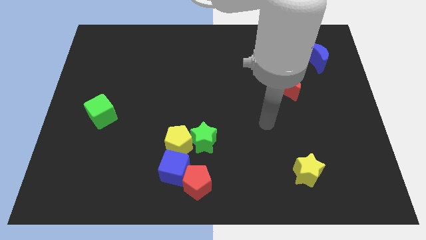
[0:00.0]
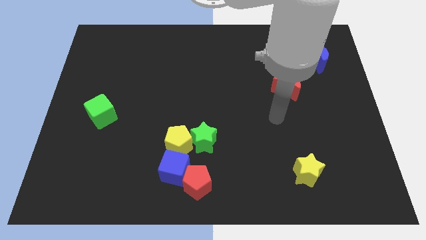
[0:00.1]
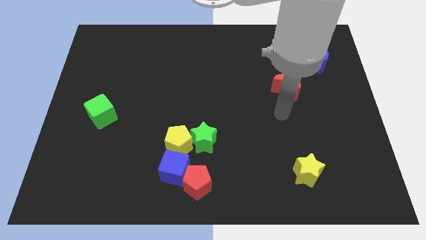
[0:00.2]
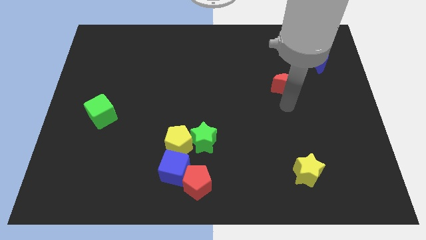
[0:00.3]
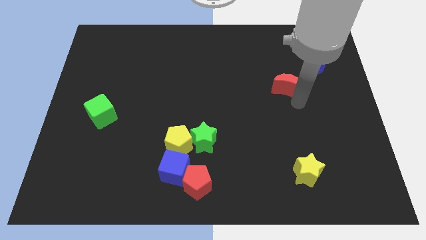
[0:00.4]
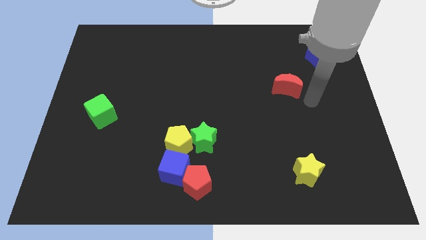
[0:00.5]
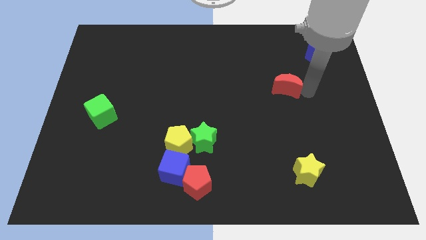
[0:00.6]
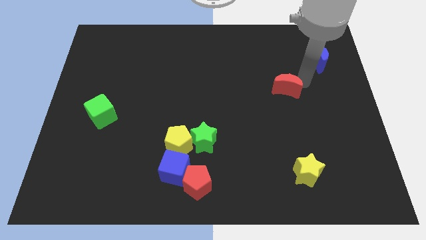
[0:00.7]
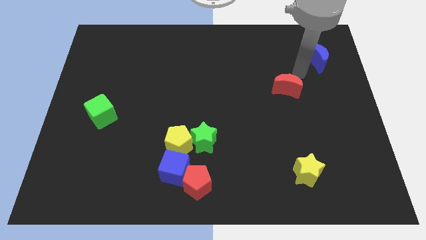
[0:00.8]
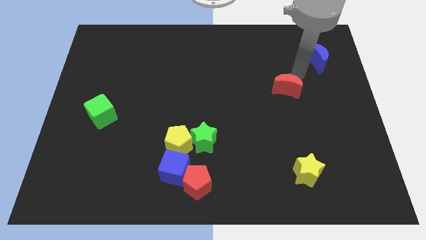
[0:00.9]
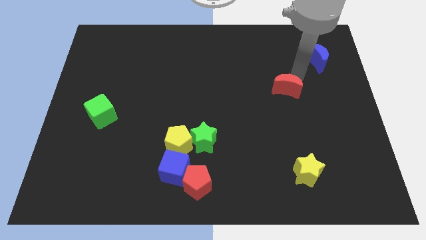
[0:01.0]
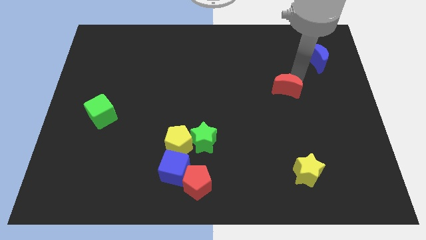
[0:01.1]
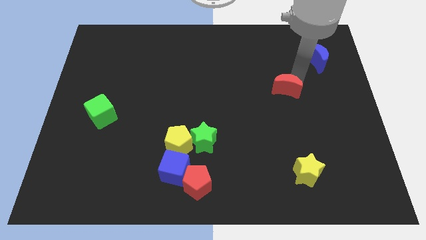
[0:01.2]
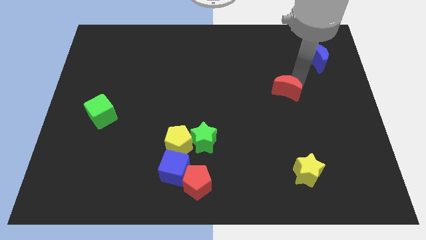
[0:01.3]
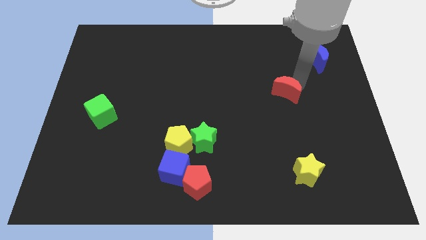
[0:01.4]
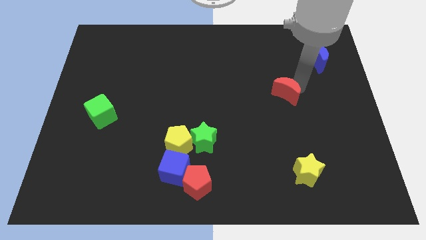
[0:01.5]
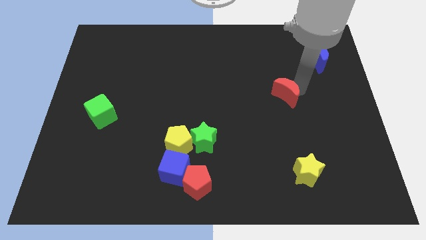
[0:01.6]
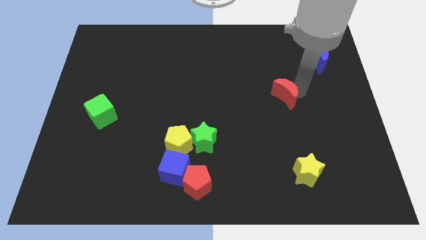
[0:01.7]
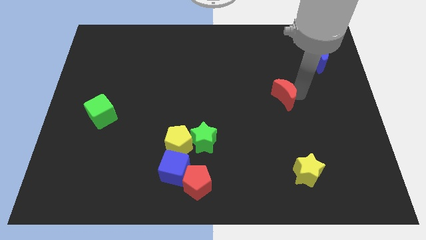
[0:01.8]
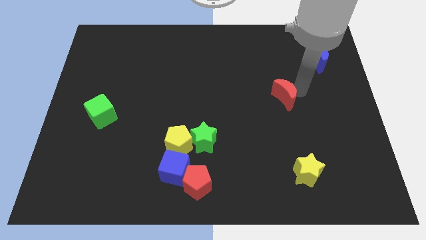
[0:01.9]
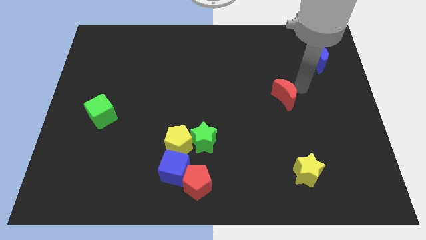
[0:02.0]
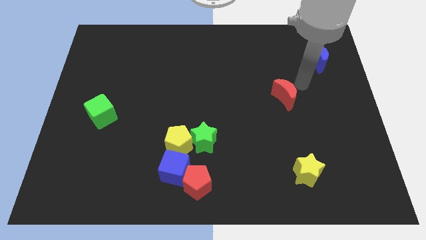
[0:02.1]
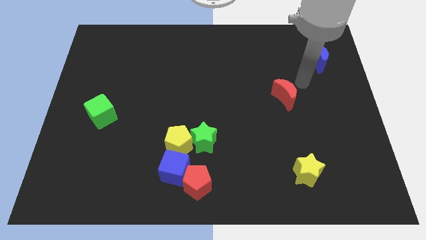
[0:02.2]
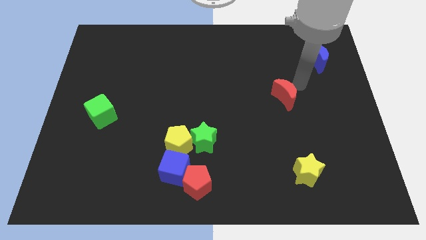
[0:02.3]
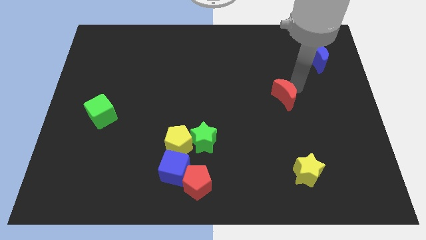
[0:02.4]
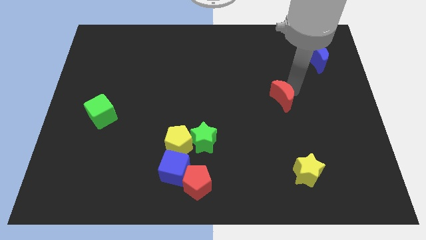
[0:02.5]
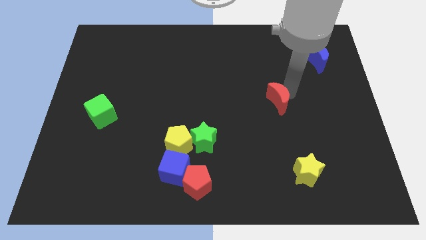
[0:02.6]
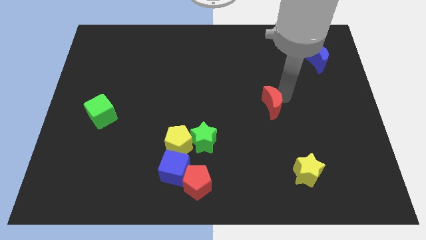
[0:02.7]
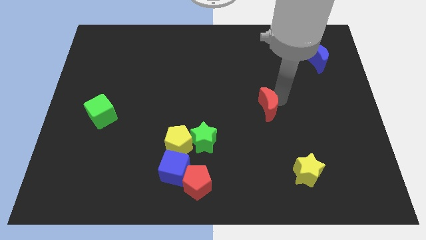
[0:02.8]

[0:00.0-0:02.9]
slide the red moon down and then left a little

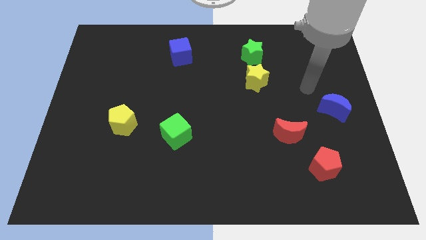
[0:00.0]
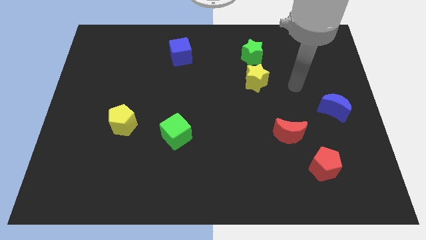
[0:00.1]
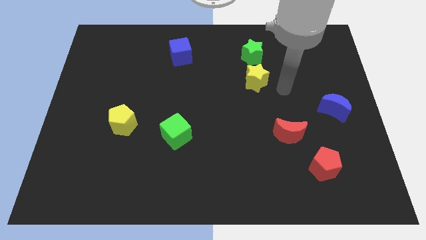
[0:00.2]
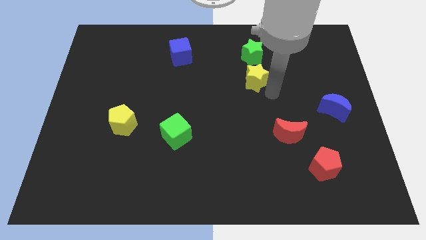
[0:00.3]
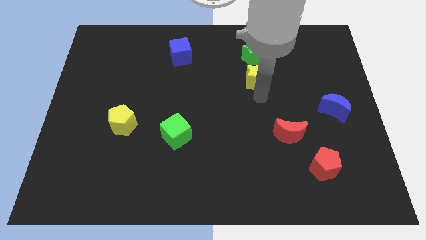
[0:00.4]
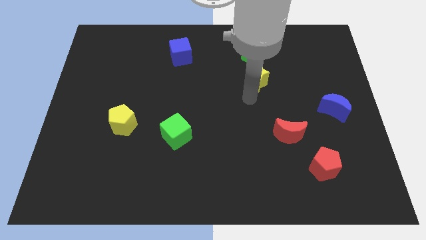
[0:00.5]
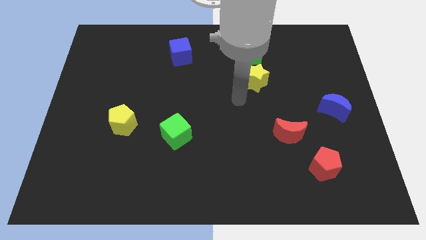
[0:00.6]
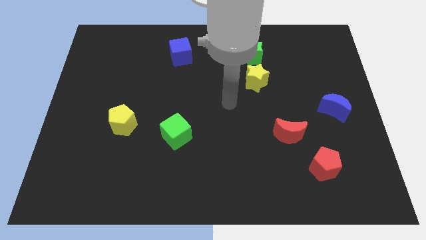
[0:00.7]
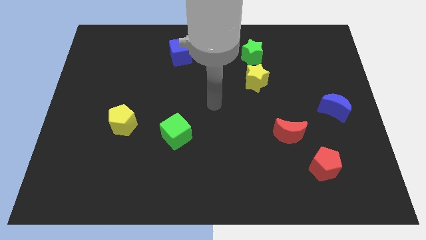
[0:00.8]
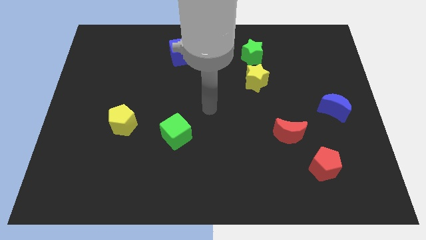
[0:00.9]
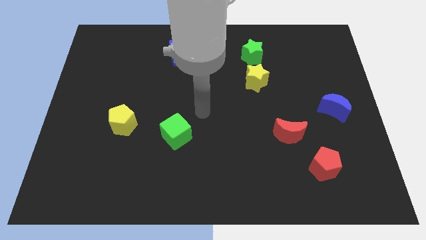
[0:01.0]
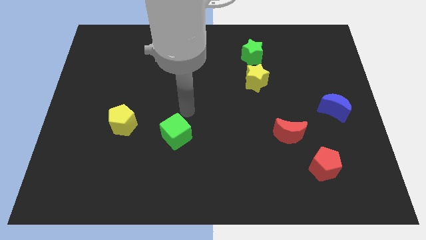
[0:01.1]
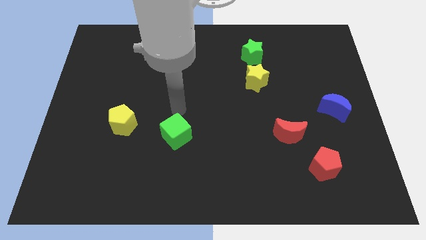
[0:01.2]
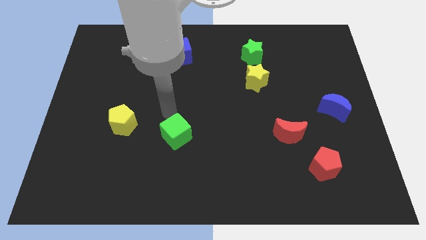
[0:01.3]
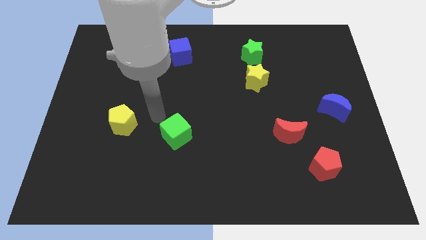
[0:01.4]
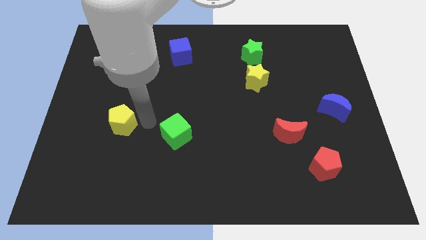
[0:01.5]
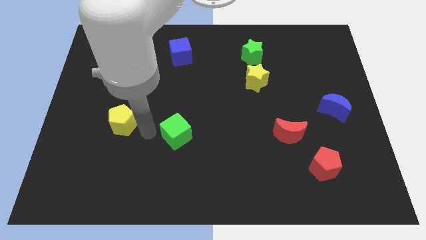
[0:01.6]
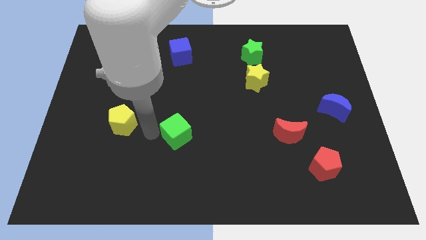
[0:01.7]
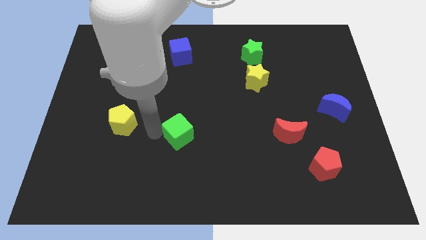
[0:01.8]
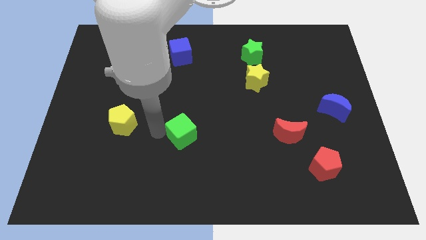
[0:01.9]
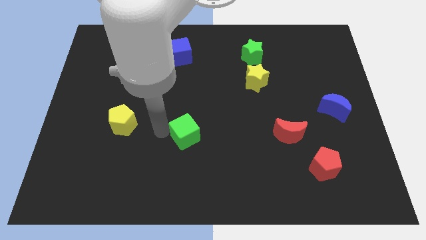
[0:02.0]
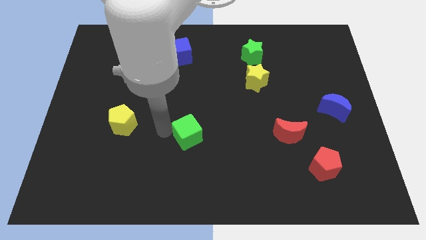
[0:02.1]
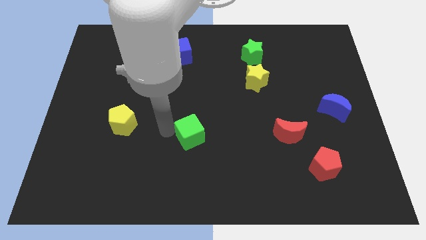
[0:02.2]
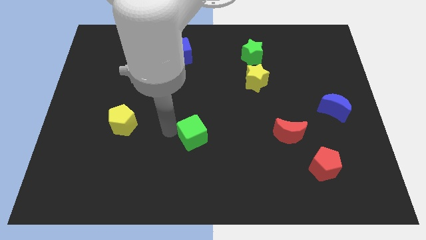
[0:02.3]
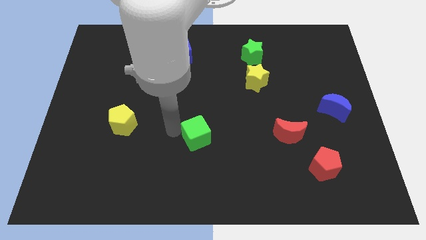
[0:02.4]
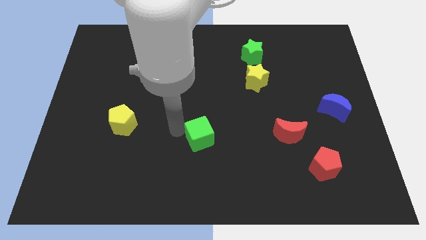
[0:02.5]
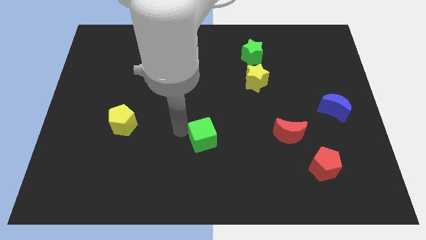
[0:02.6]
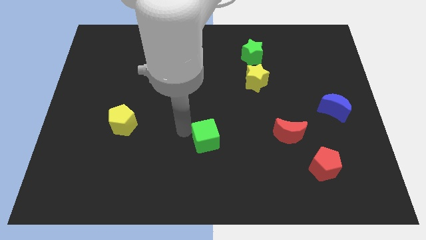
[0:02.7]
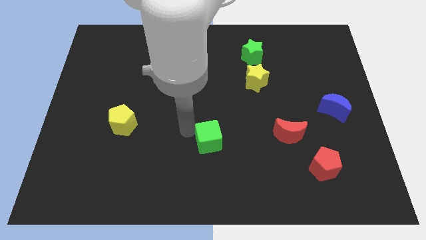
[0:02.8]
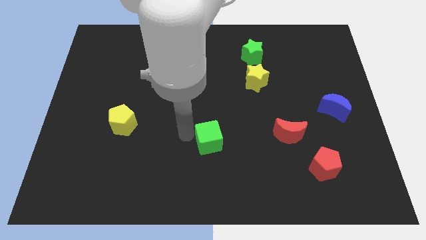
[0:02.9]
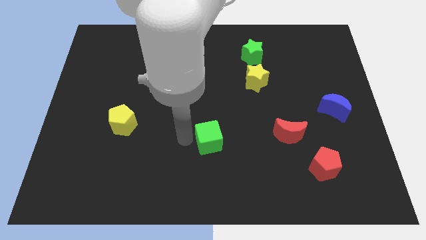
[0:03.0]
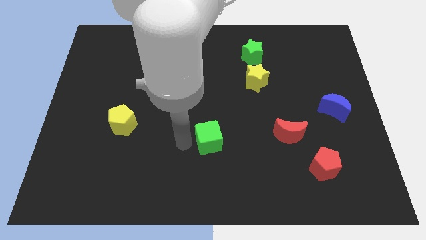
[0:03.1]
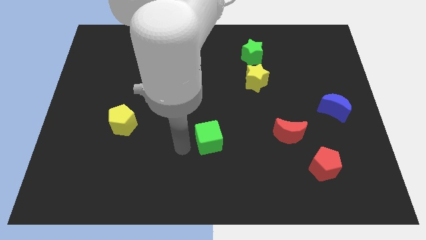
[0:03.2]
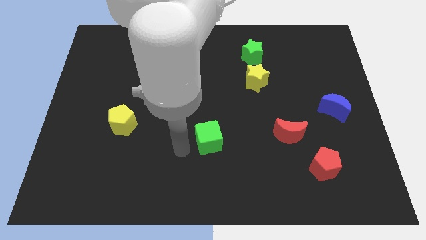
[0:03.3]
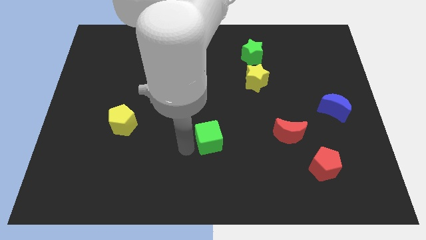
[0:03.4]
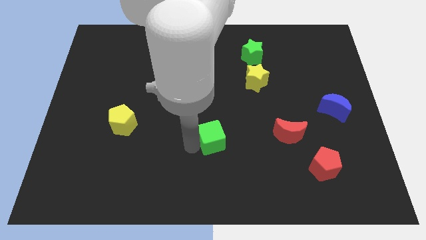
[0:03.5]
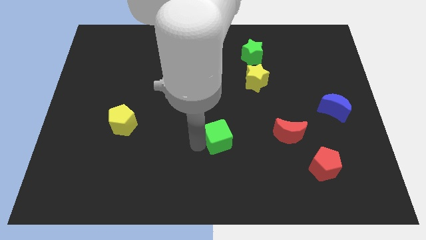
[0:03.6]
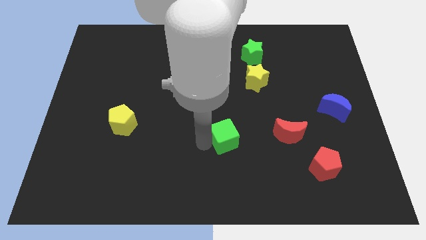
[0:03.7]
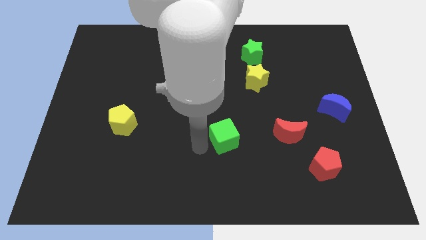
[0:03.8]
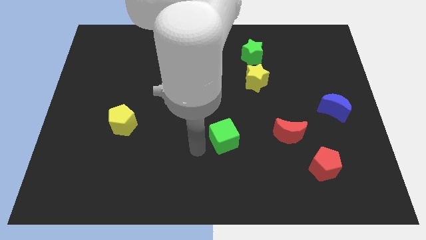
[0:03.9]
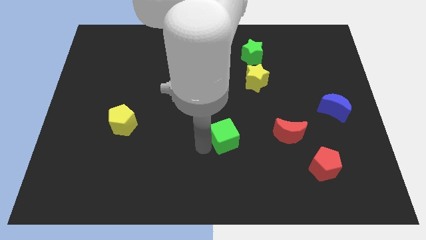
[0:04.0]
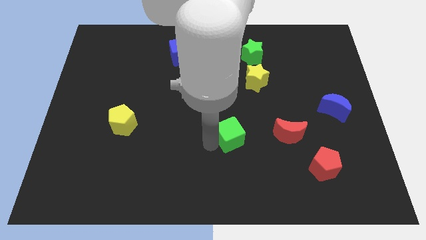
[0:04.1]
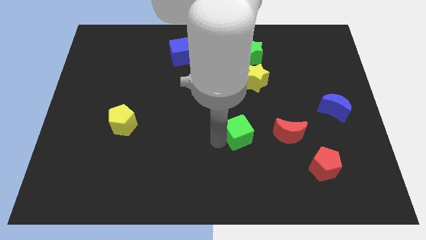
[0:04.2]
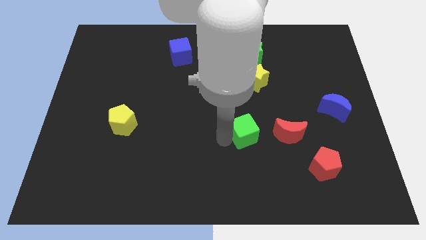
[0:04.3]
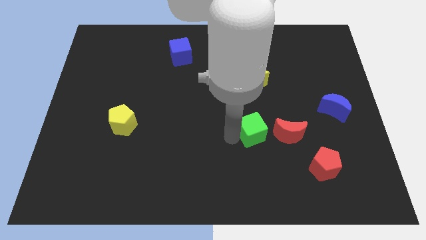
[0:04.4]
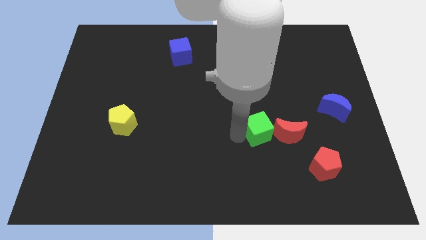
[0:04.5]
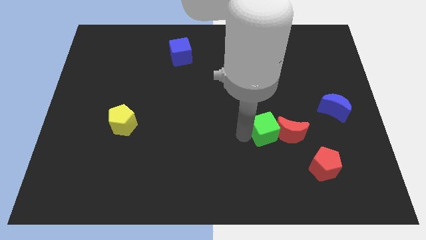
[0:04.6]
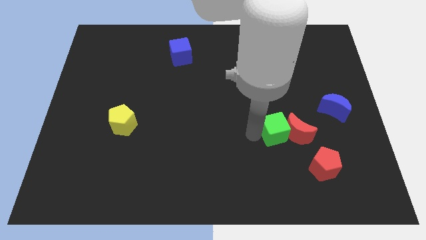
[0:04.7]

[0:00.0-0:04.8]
slide the green cube to the right

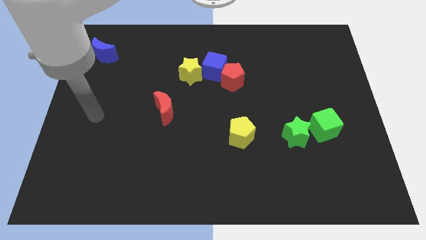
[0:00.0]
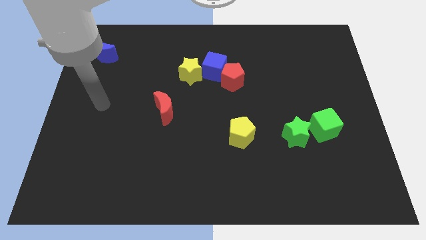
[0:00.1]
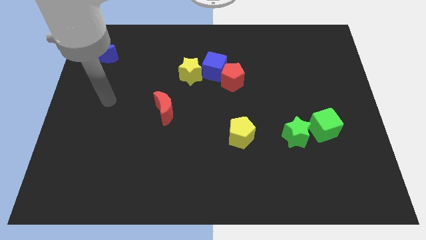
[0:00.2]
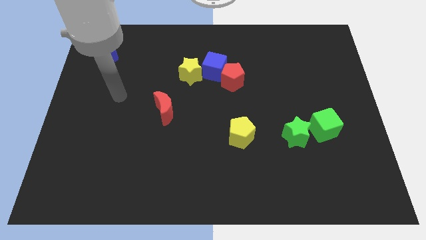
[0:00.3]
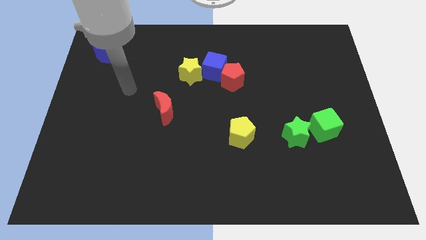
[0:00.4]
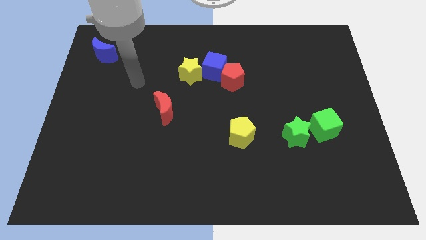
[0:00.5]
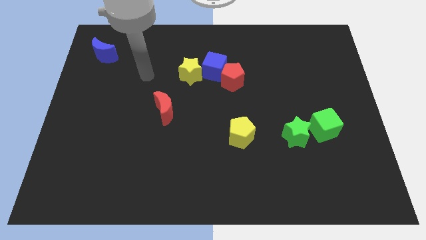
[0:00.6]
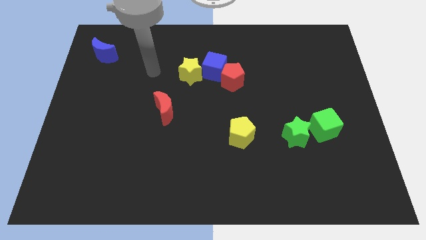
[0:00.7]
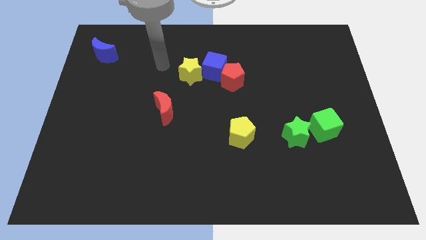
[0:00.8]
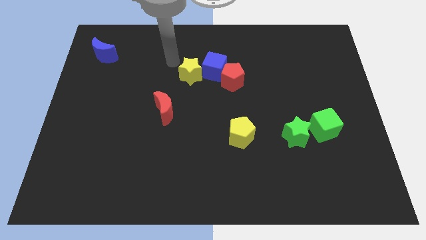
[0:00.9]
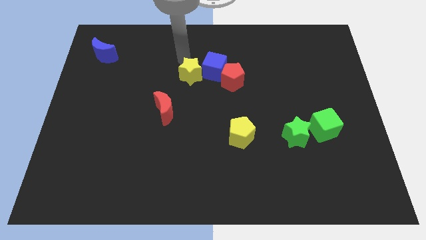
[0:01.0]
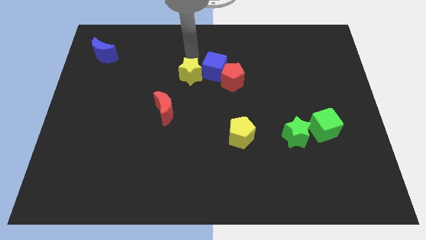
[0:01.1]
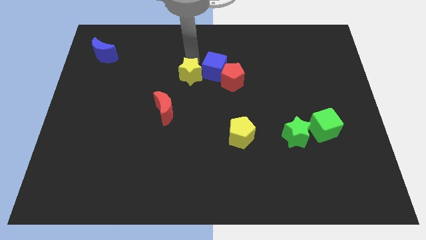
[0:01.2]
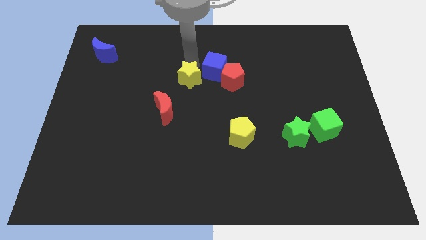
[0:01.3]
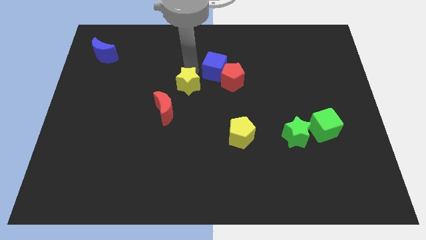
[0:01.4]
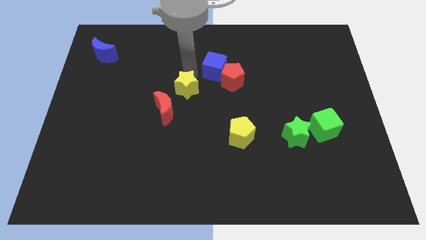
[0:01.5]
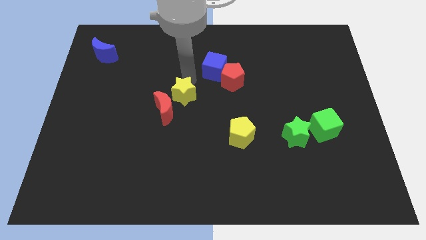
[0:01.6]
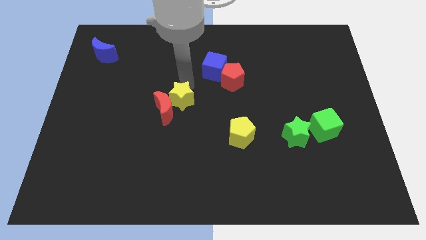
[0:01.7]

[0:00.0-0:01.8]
move the yellow star a little bit down
